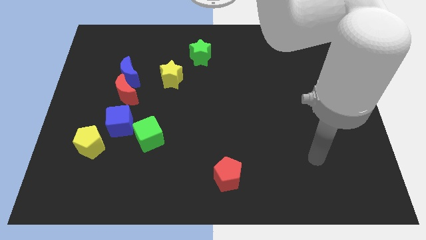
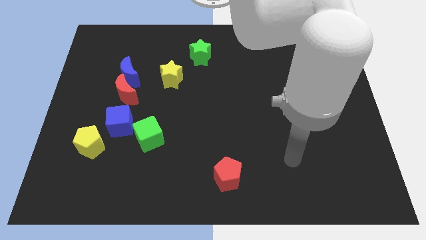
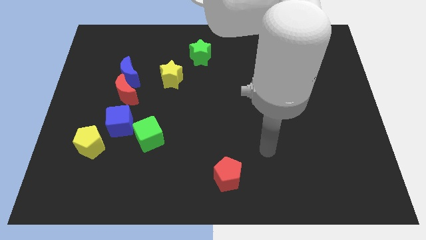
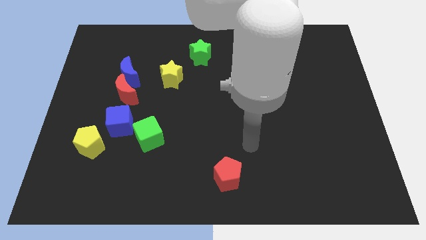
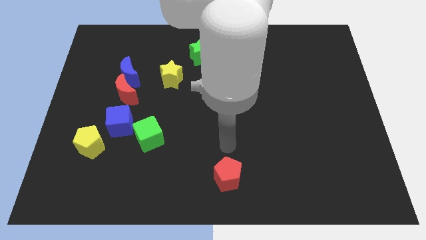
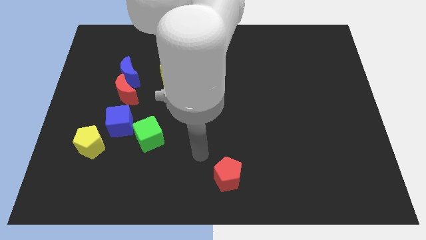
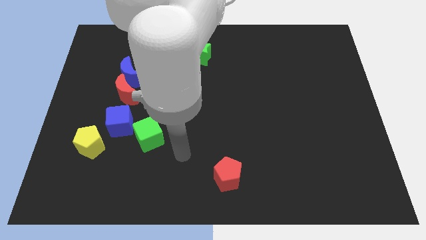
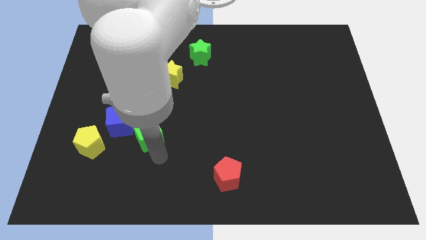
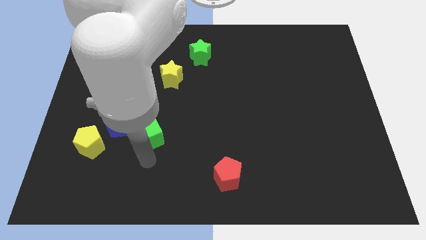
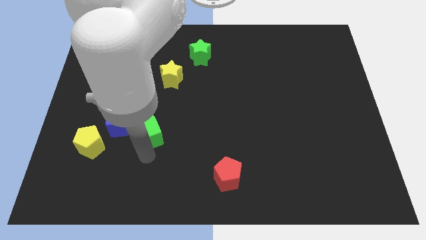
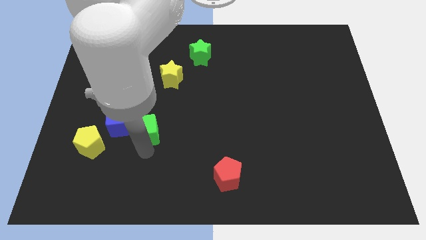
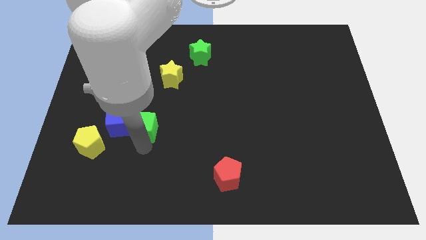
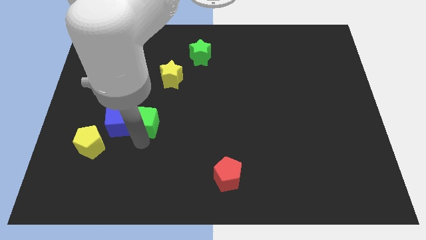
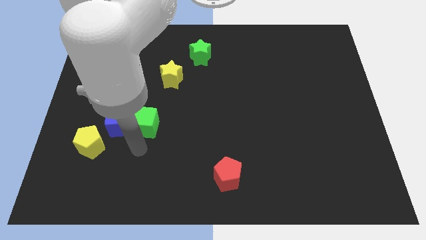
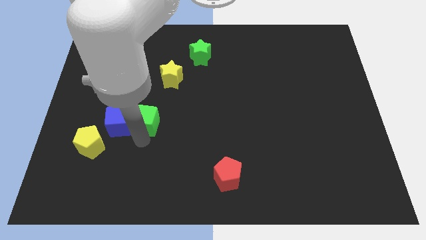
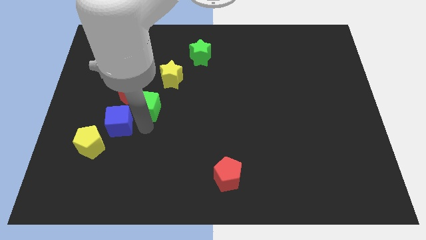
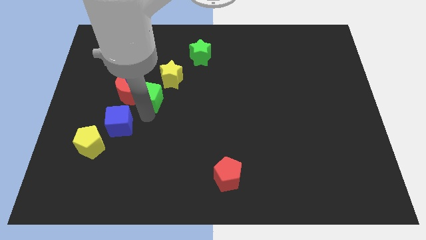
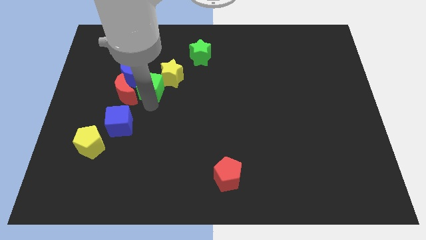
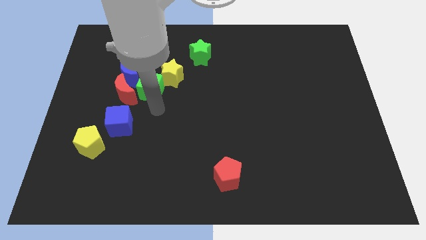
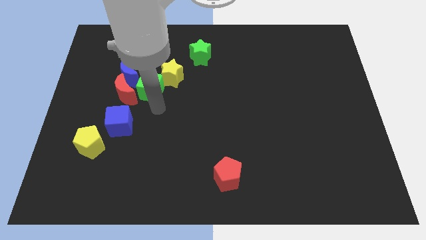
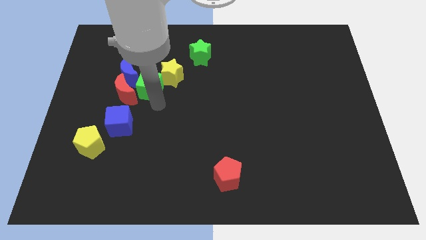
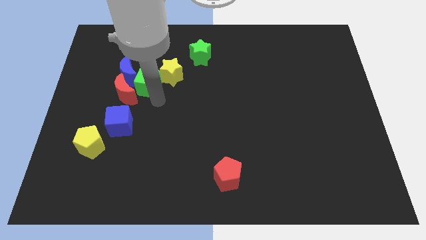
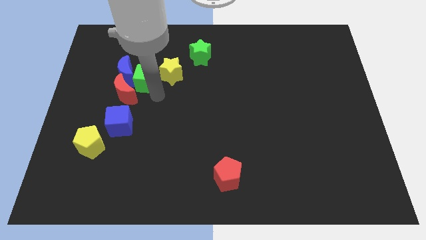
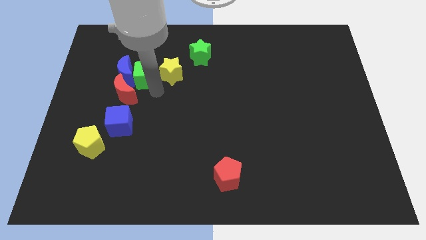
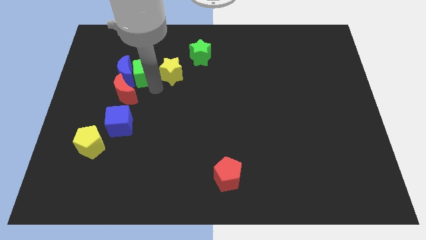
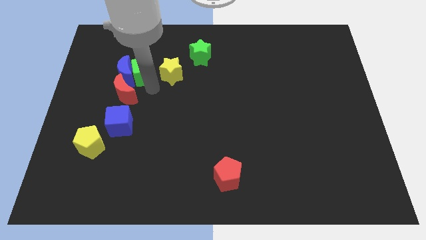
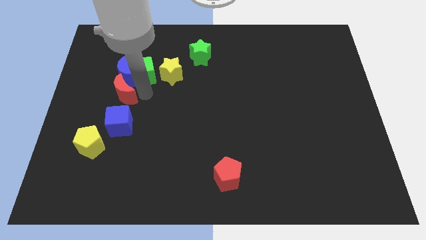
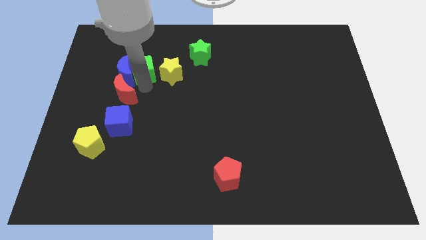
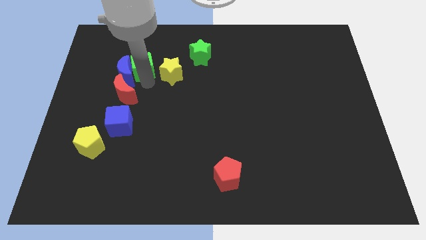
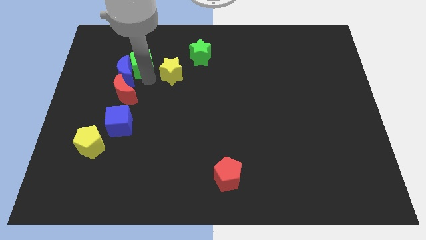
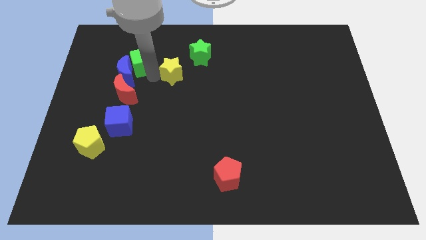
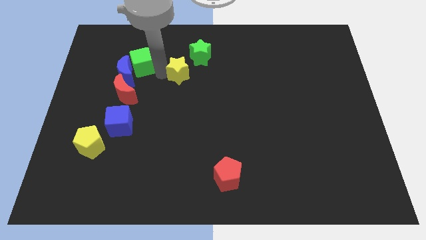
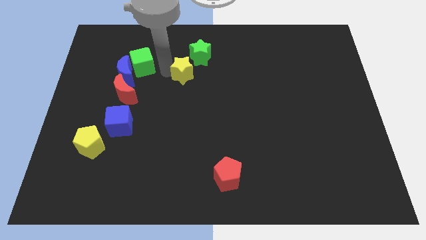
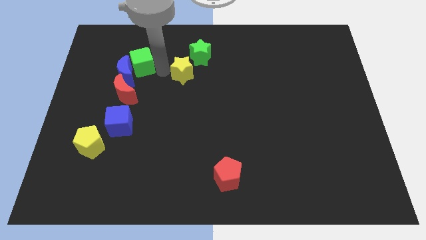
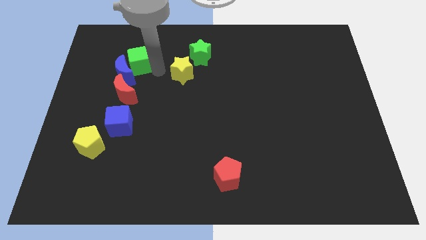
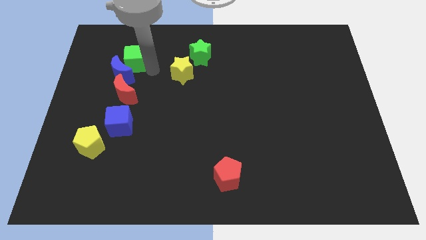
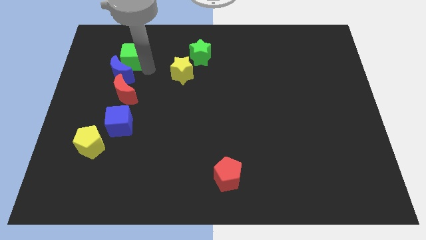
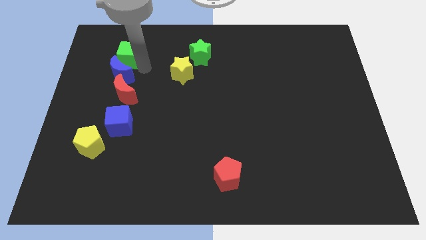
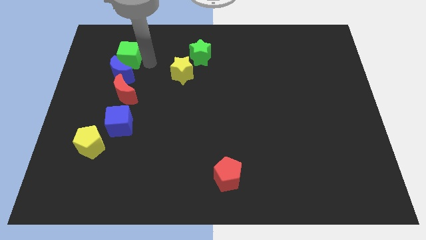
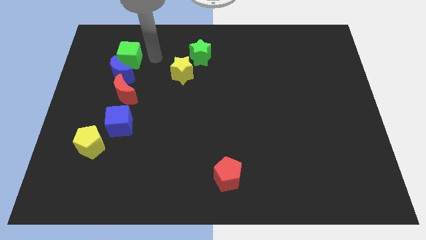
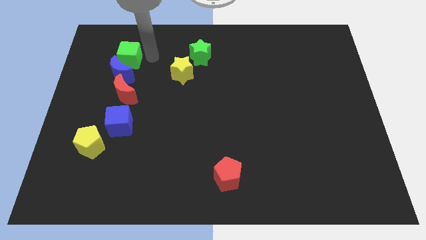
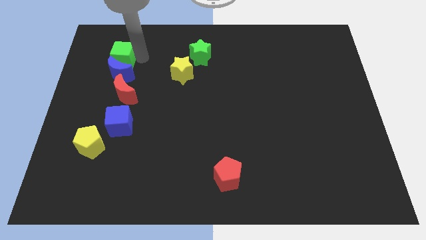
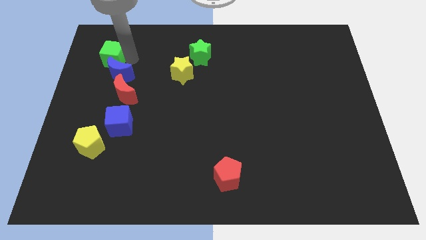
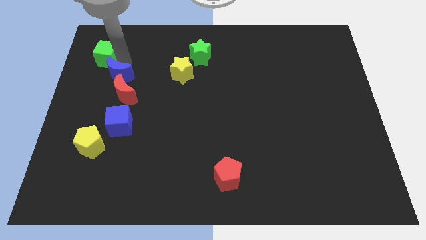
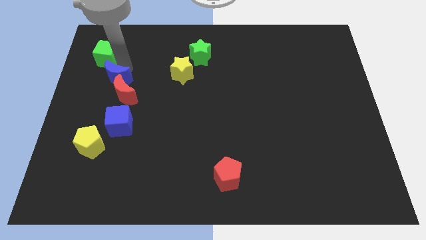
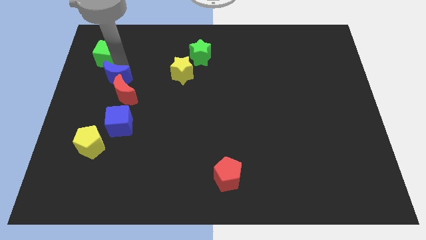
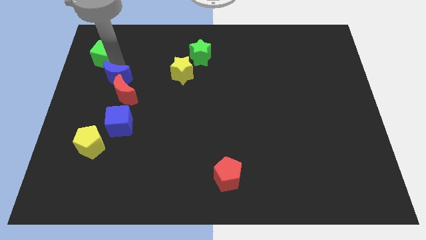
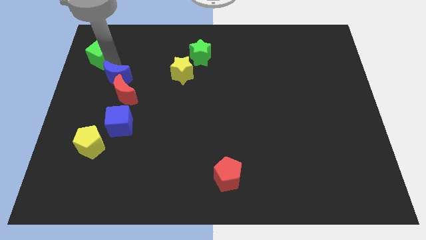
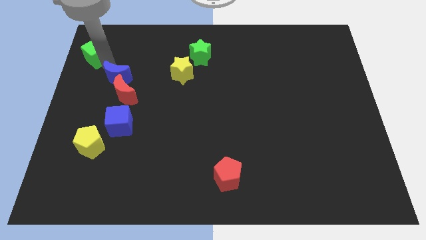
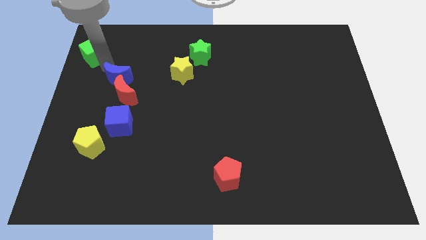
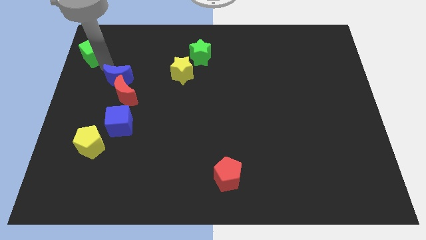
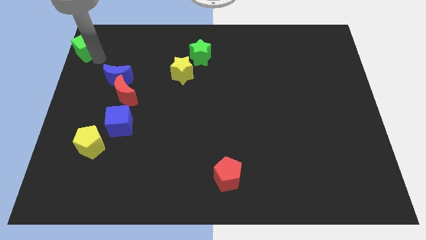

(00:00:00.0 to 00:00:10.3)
move the green cube to the upper left corner

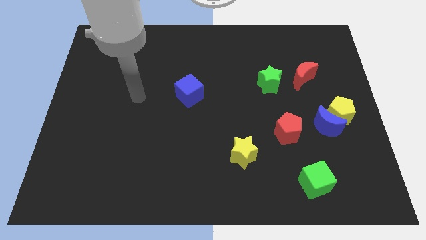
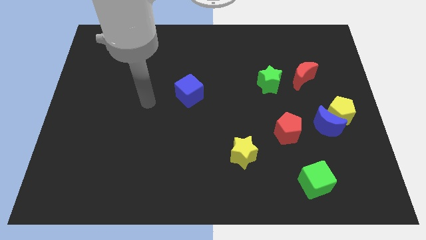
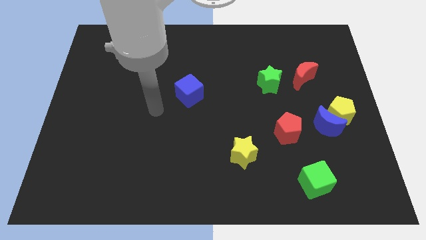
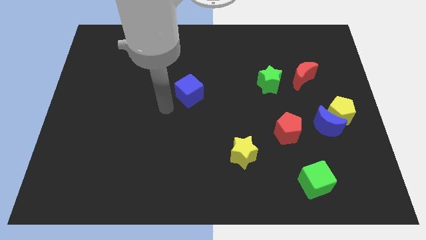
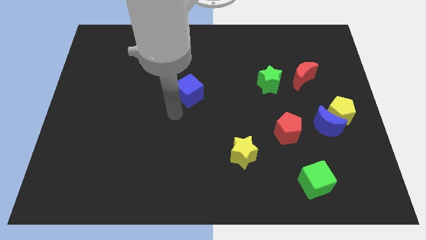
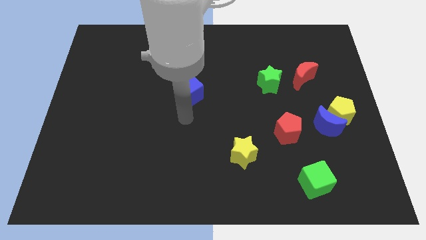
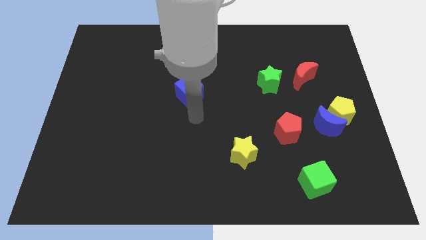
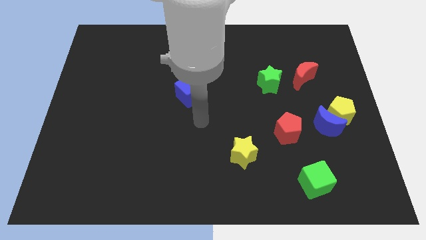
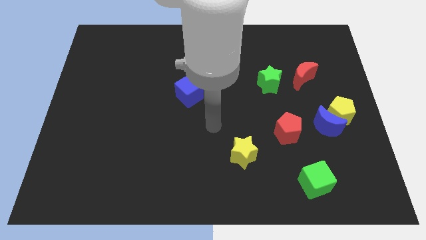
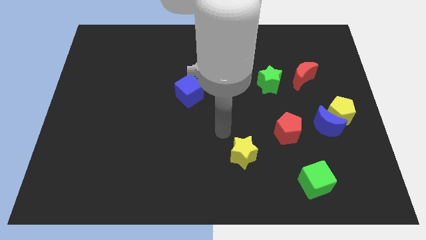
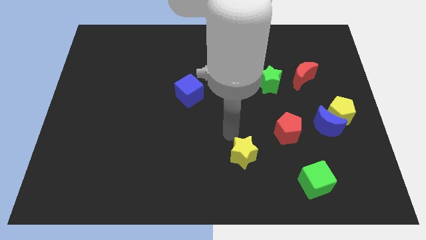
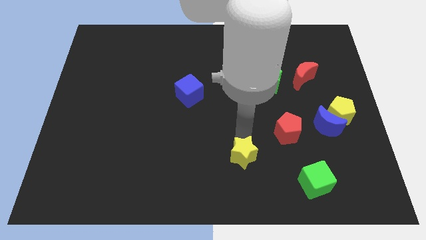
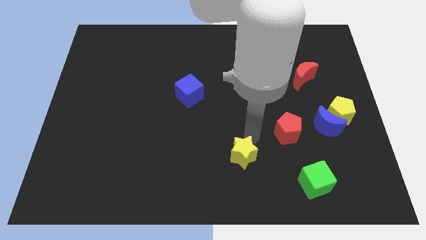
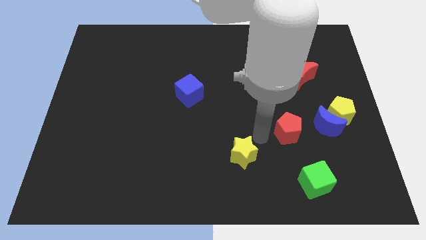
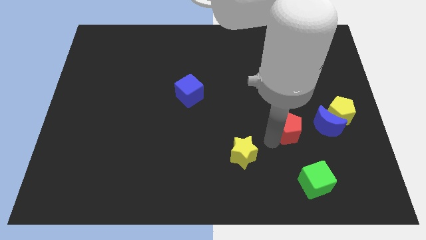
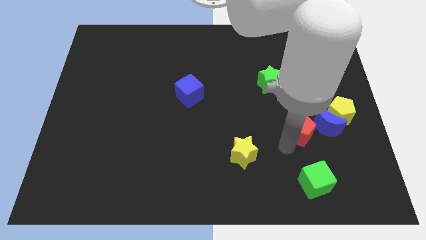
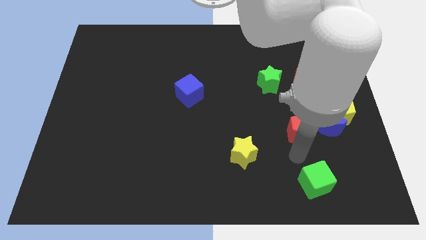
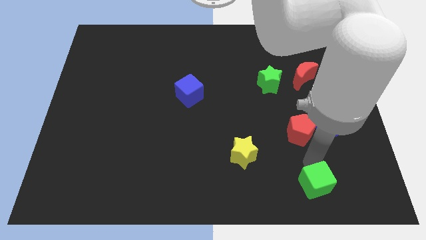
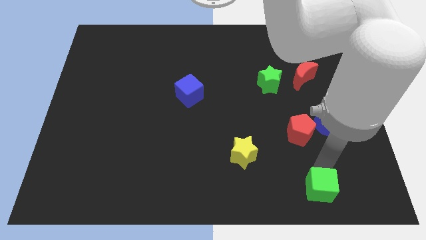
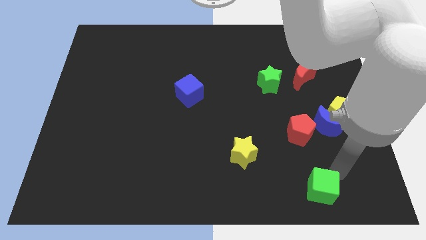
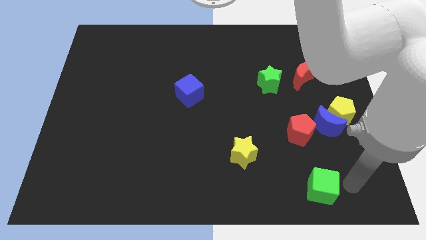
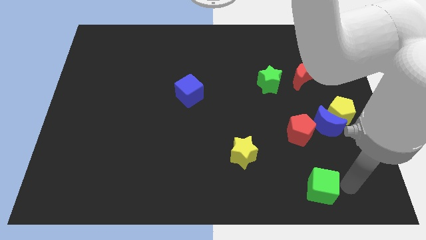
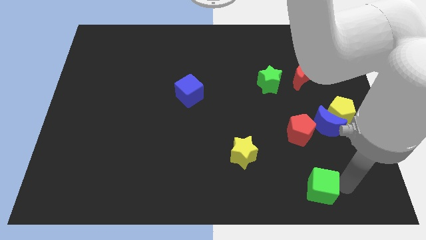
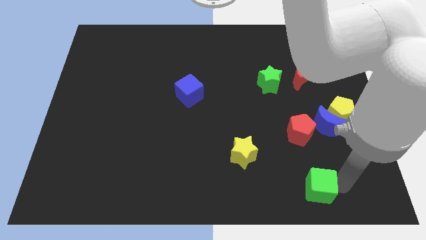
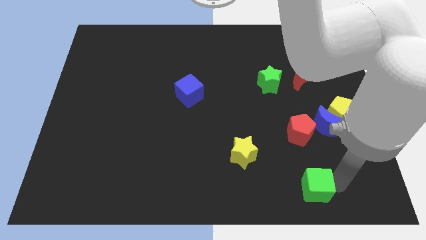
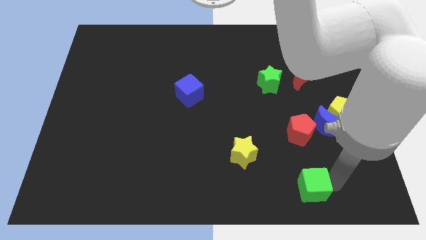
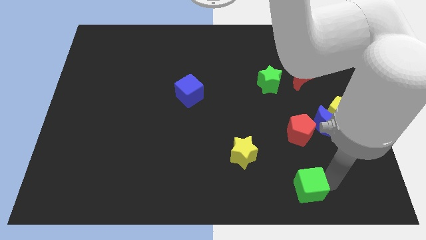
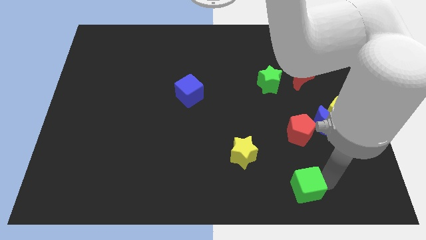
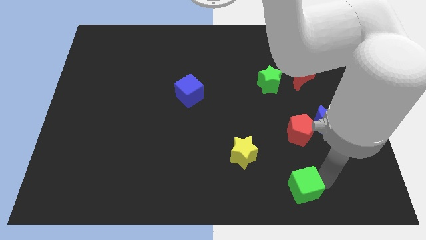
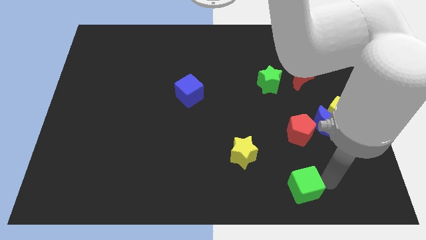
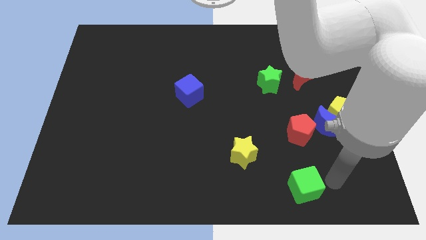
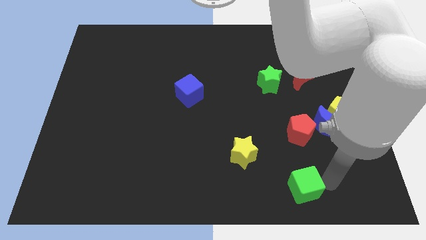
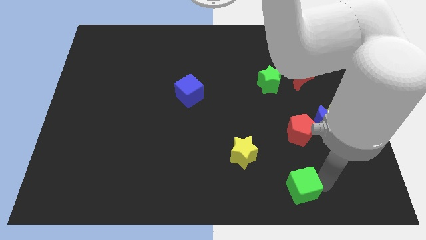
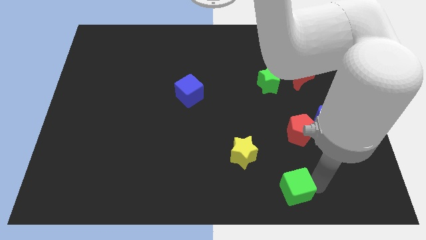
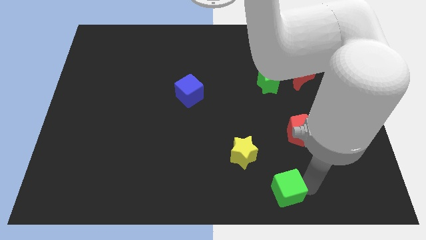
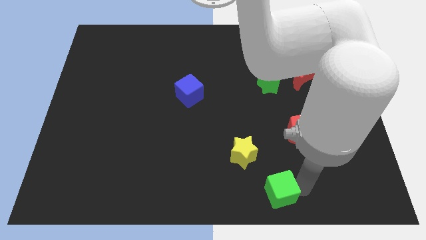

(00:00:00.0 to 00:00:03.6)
put the green cube to the bottom
